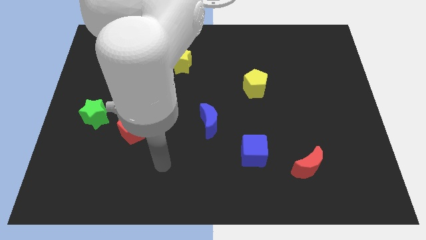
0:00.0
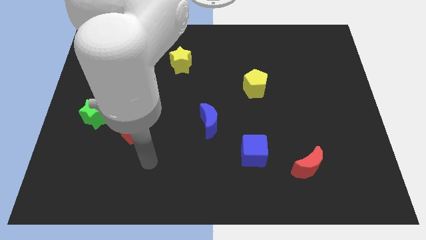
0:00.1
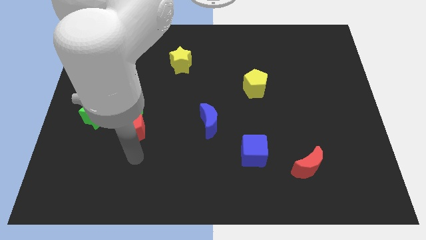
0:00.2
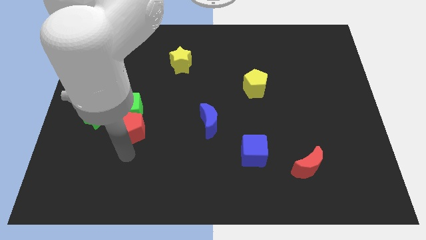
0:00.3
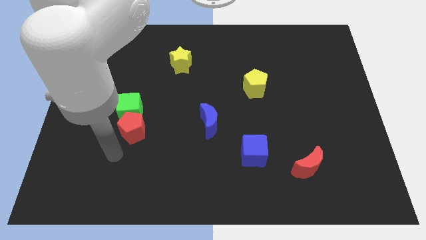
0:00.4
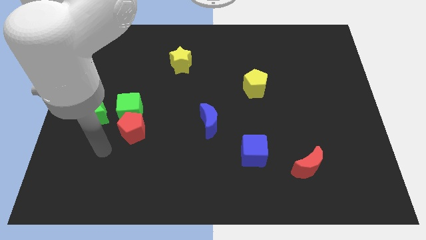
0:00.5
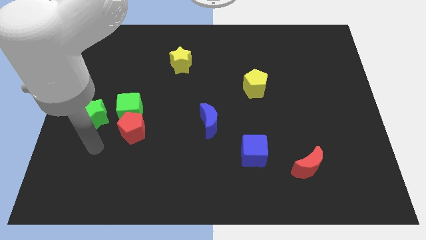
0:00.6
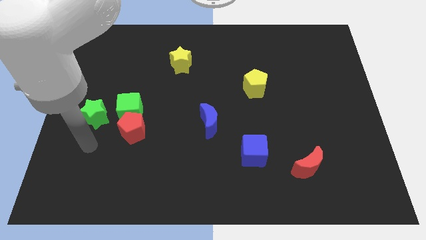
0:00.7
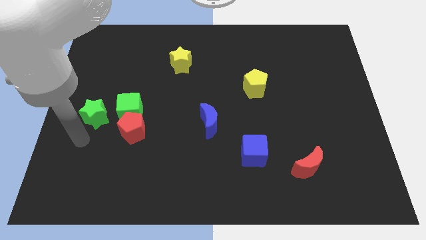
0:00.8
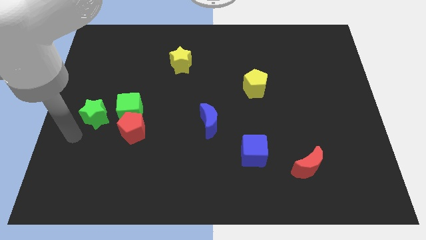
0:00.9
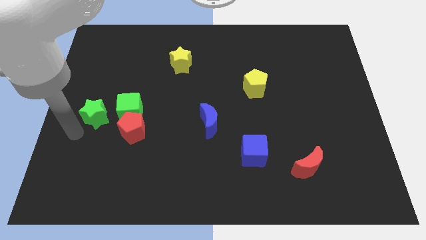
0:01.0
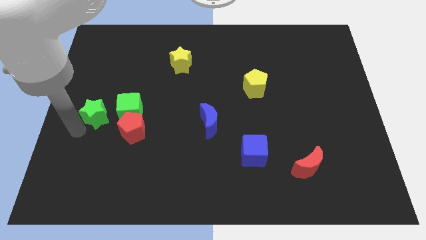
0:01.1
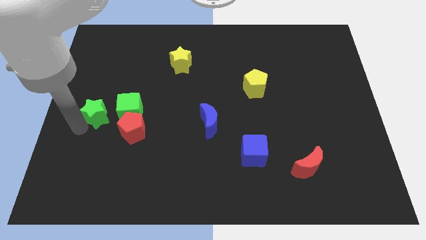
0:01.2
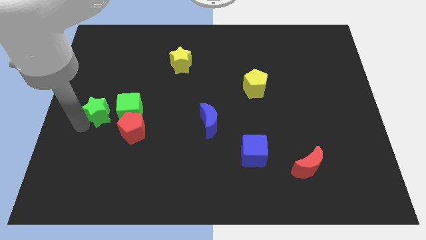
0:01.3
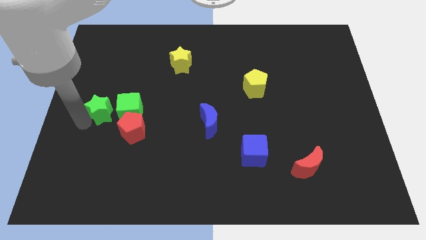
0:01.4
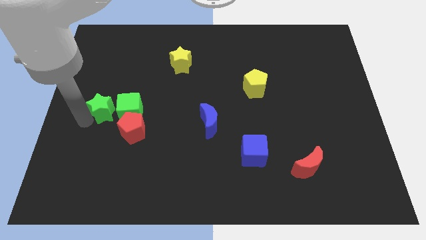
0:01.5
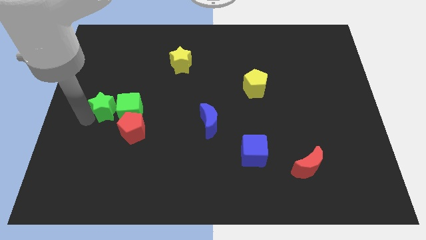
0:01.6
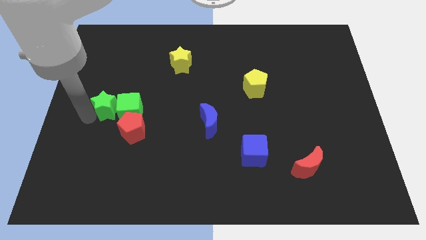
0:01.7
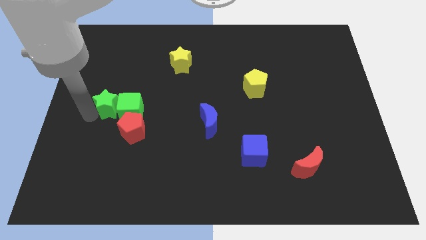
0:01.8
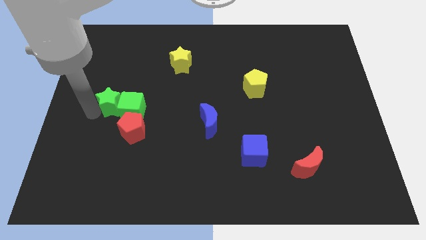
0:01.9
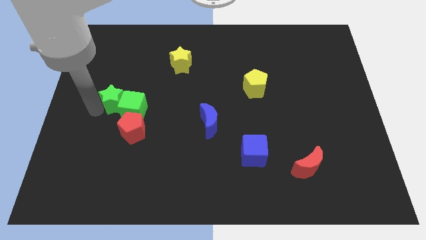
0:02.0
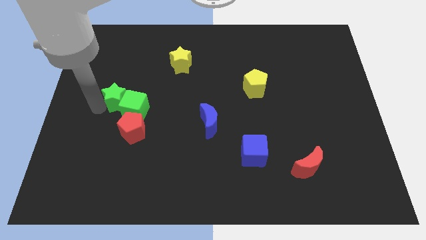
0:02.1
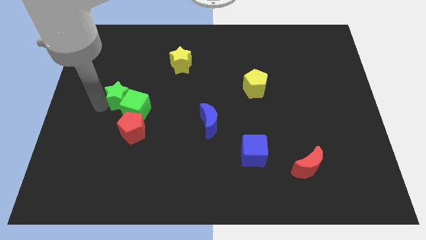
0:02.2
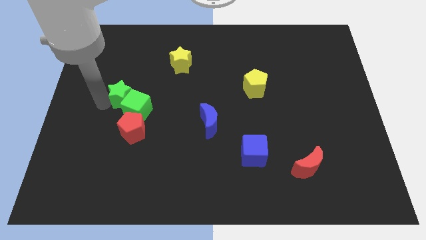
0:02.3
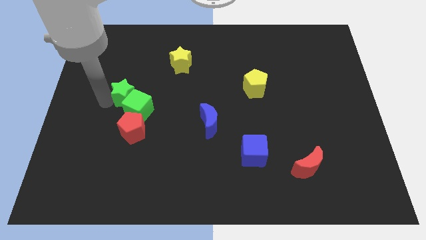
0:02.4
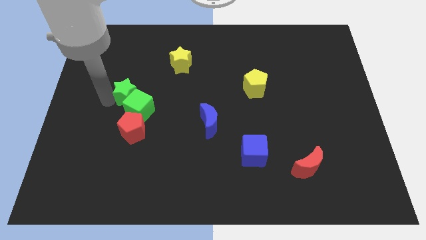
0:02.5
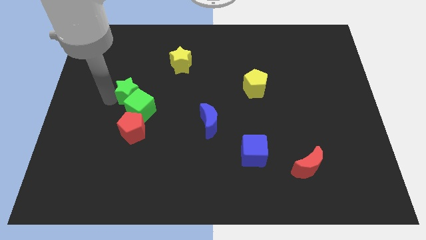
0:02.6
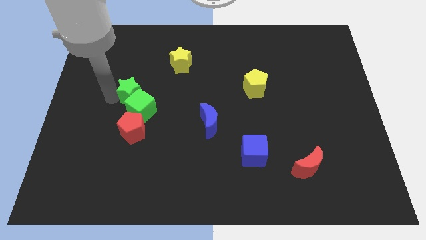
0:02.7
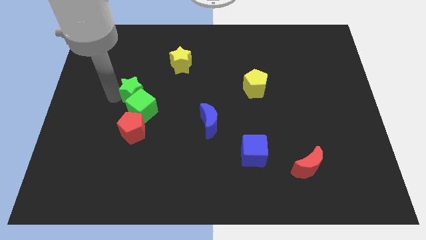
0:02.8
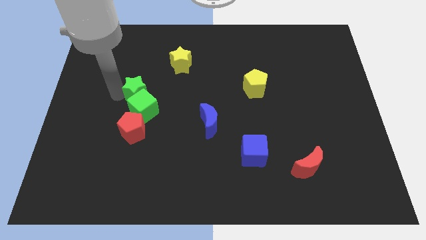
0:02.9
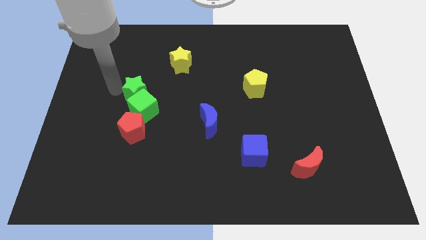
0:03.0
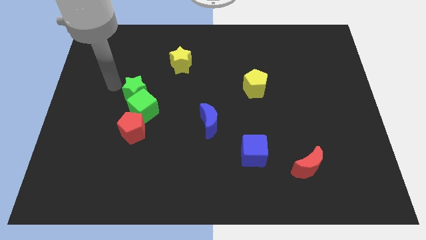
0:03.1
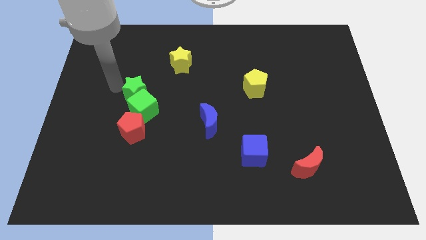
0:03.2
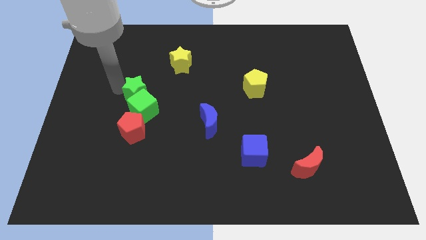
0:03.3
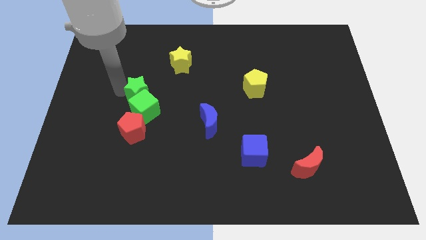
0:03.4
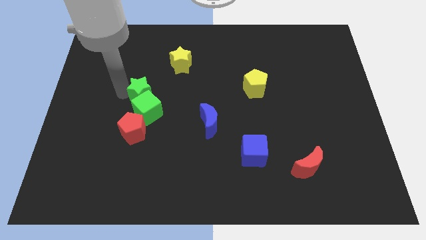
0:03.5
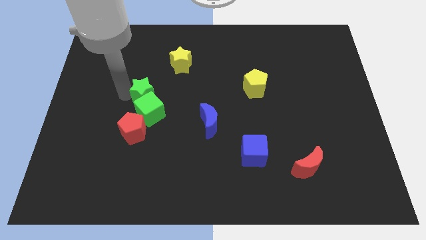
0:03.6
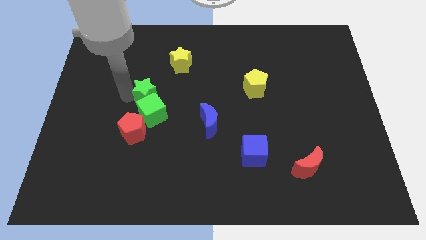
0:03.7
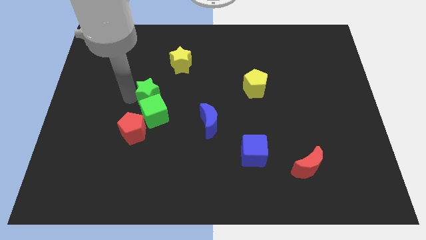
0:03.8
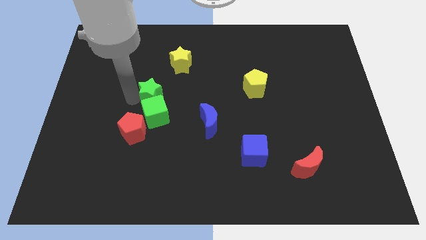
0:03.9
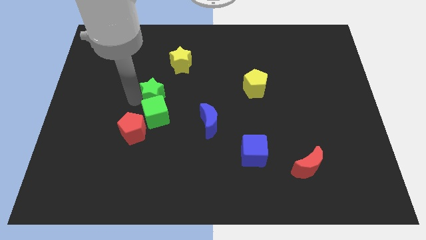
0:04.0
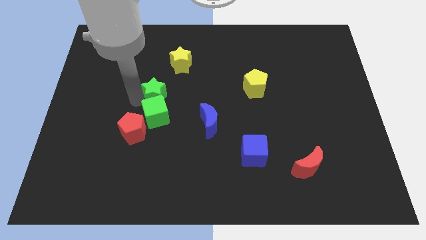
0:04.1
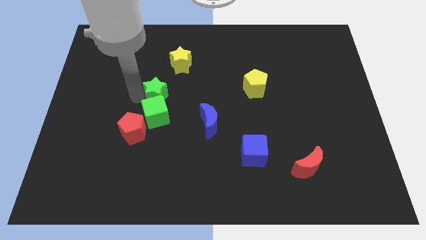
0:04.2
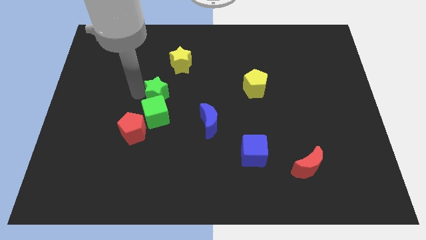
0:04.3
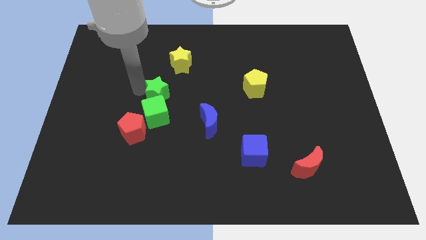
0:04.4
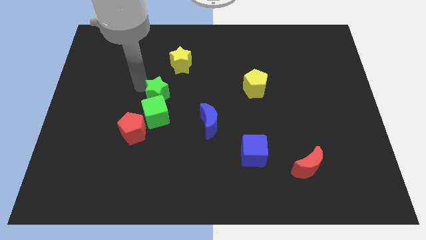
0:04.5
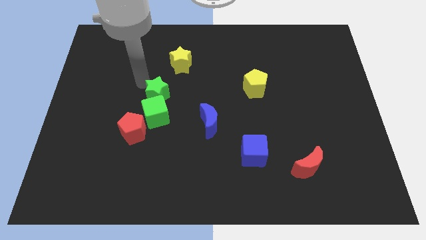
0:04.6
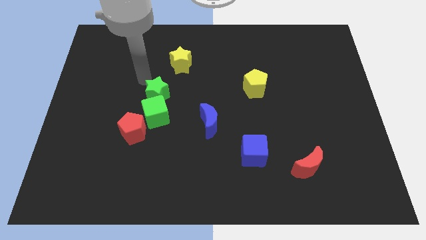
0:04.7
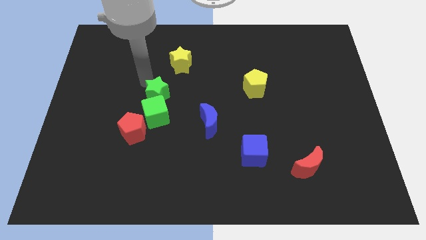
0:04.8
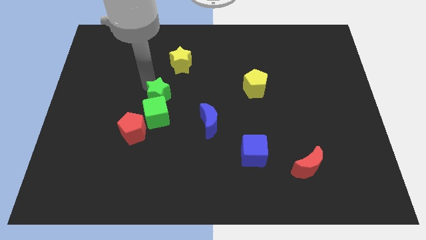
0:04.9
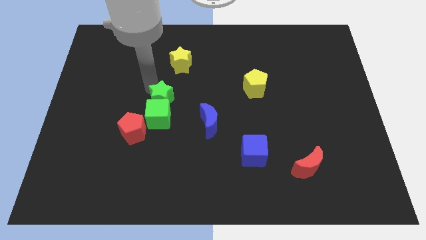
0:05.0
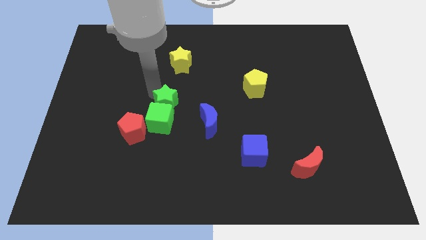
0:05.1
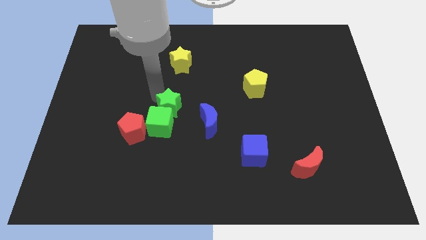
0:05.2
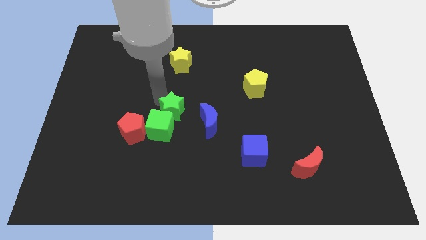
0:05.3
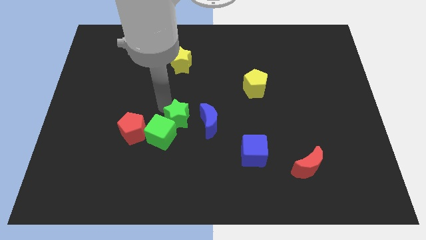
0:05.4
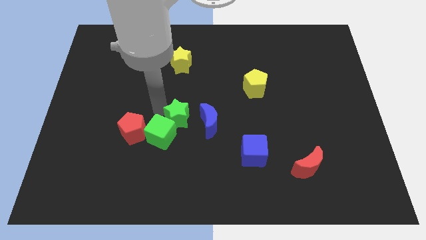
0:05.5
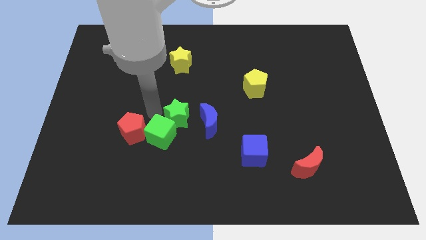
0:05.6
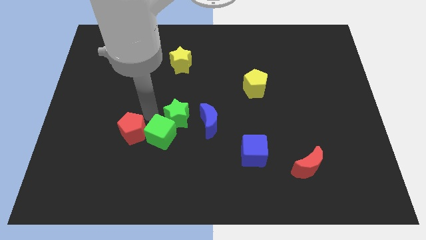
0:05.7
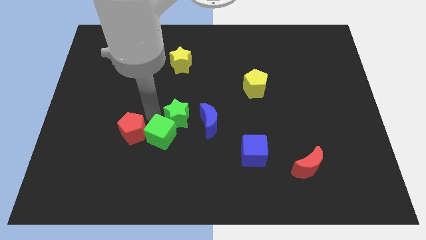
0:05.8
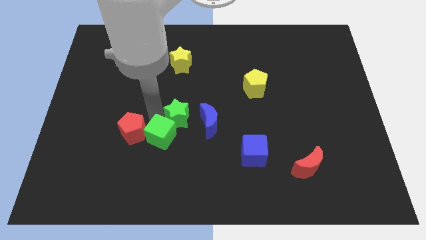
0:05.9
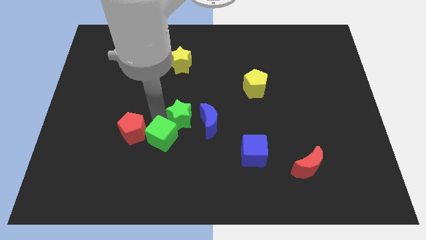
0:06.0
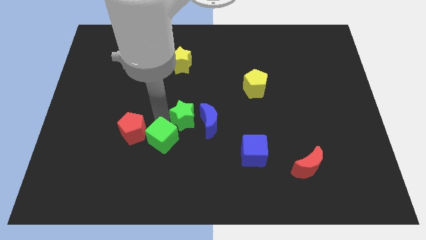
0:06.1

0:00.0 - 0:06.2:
slide the green star to the blue moon

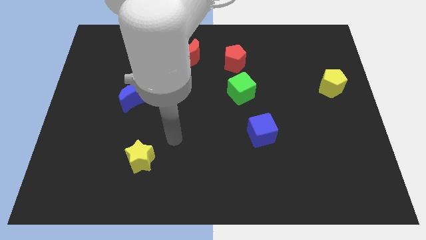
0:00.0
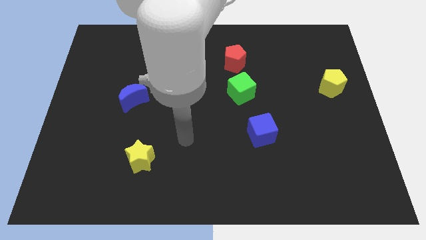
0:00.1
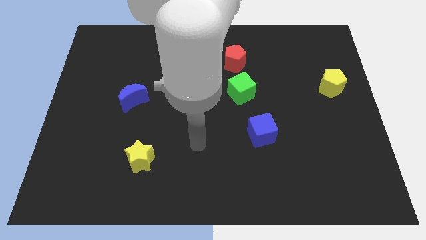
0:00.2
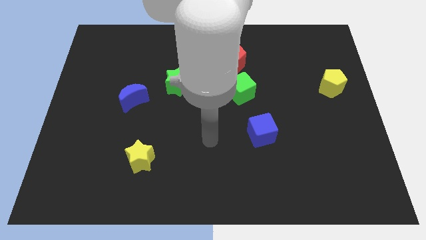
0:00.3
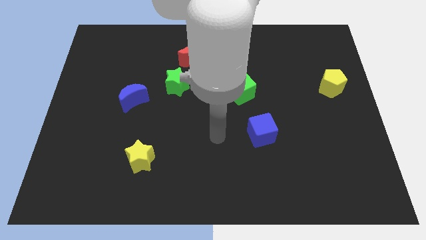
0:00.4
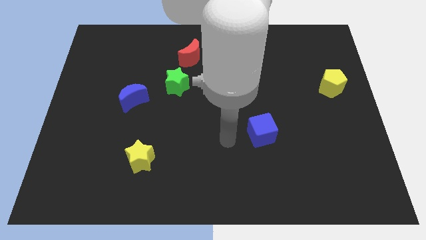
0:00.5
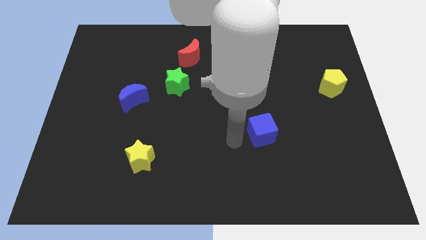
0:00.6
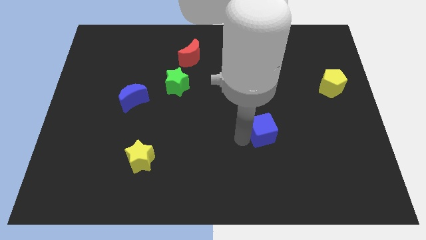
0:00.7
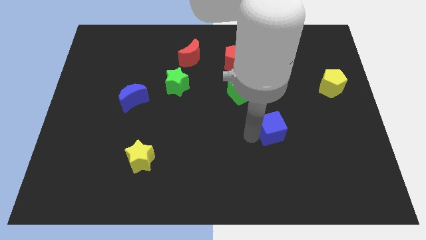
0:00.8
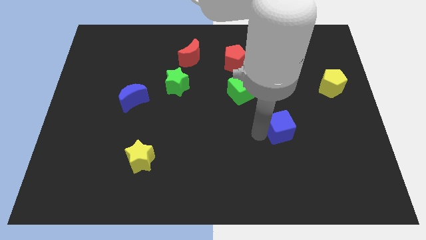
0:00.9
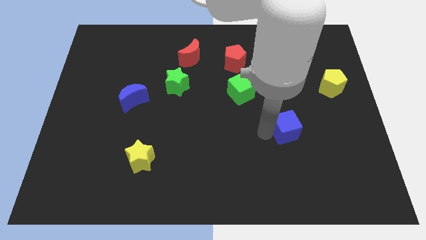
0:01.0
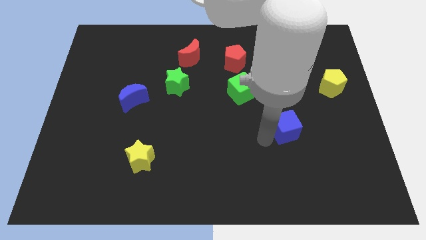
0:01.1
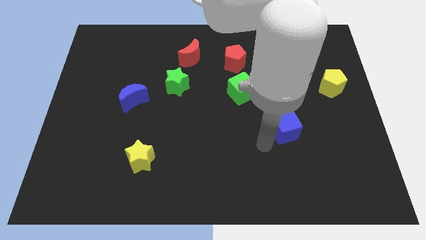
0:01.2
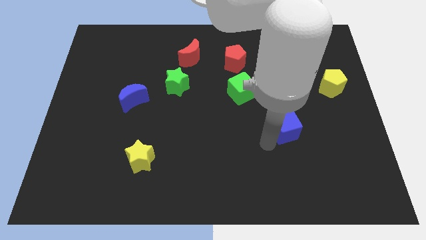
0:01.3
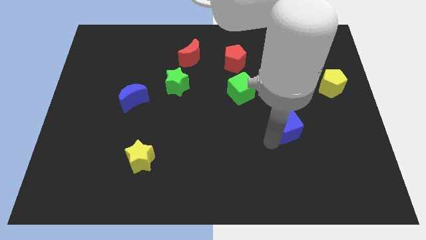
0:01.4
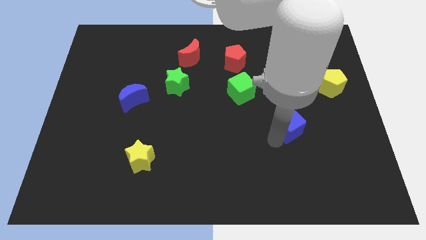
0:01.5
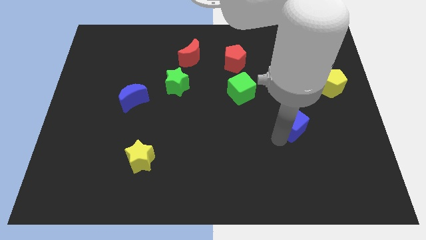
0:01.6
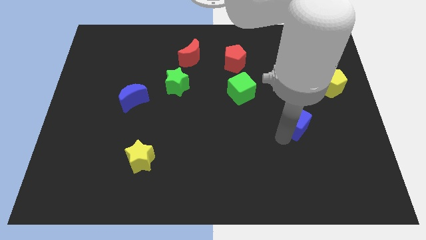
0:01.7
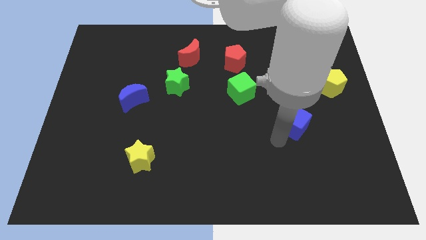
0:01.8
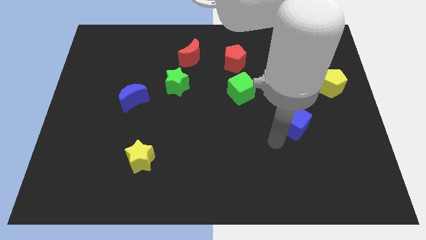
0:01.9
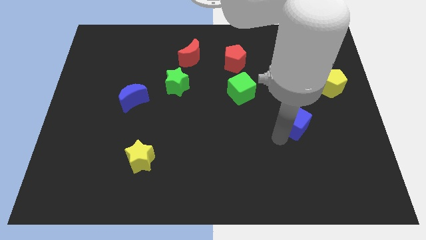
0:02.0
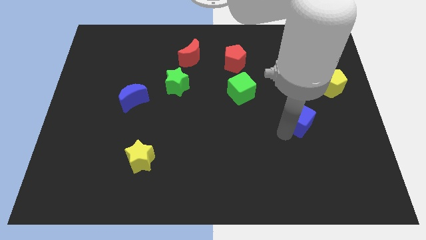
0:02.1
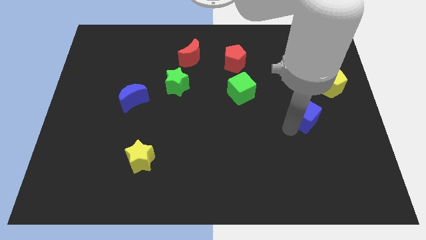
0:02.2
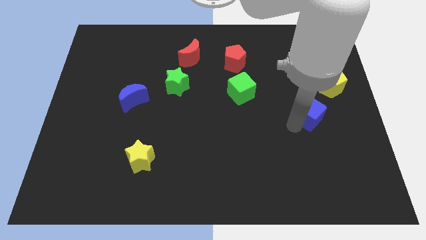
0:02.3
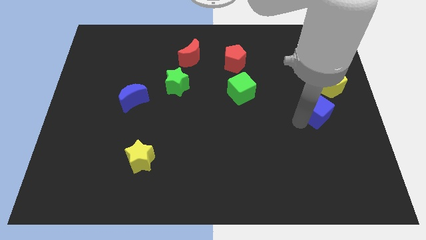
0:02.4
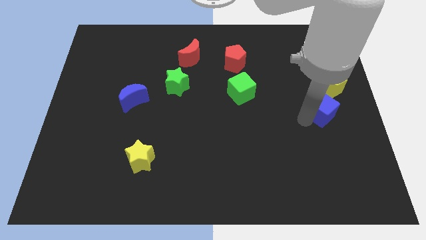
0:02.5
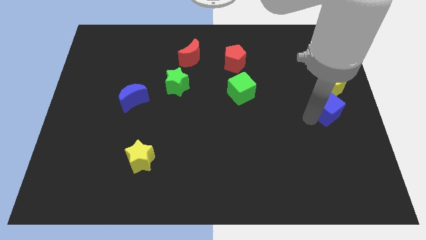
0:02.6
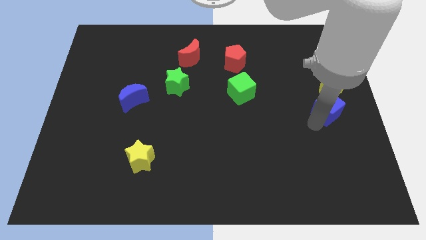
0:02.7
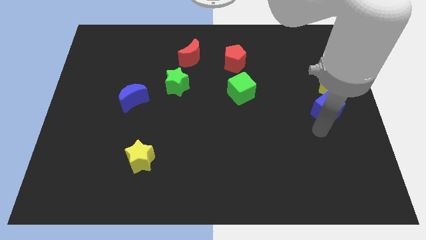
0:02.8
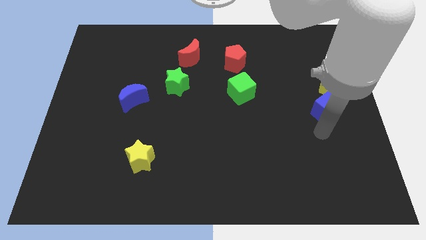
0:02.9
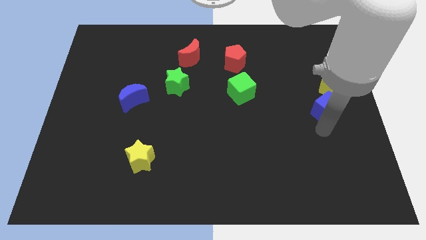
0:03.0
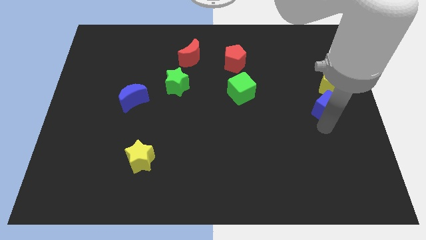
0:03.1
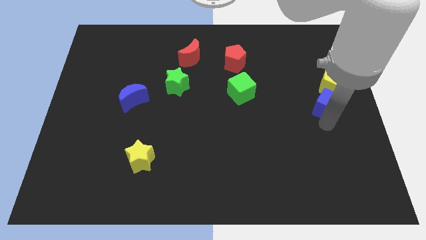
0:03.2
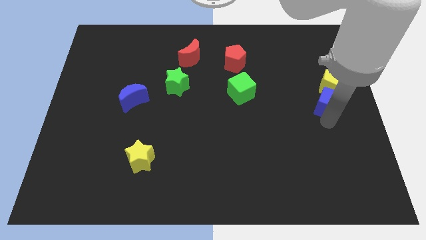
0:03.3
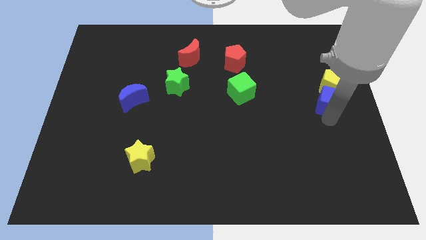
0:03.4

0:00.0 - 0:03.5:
put the blue cube close to the yellow pentagon
